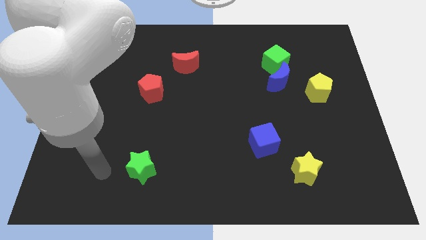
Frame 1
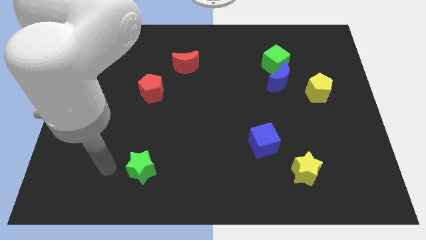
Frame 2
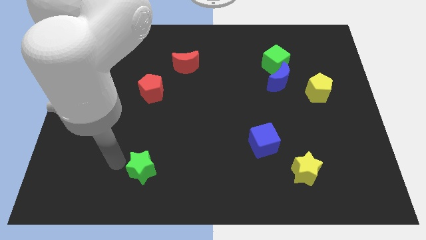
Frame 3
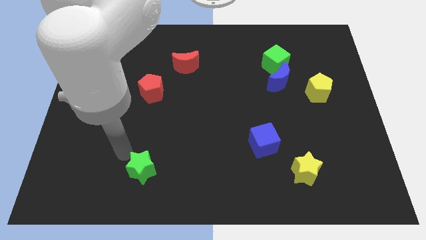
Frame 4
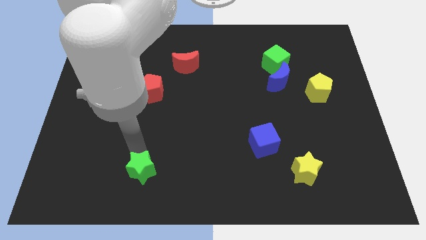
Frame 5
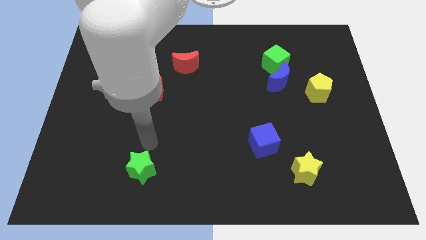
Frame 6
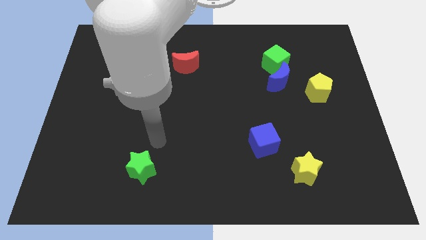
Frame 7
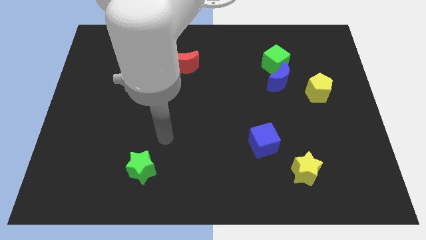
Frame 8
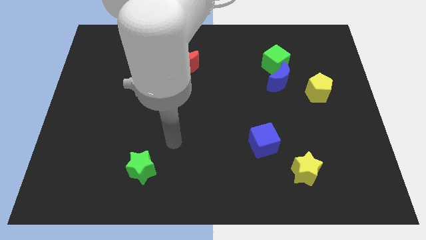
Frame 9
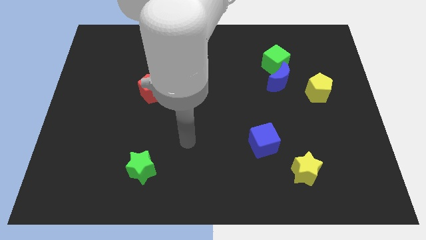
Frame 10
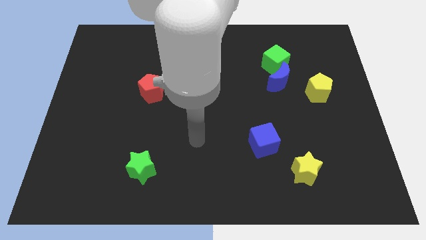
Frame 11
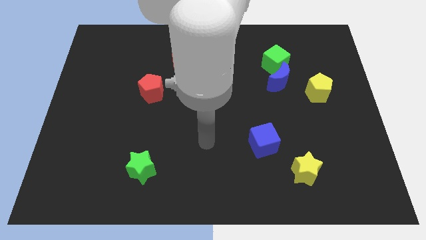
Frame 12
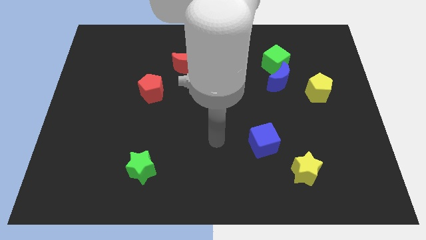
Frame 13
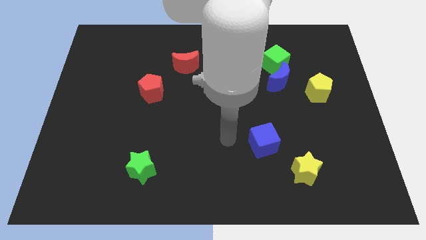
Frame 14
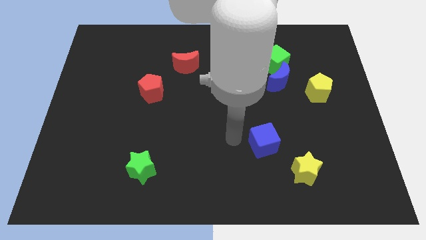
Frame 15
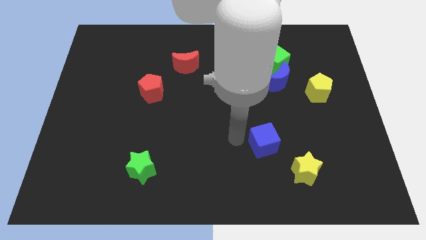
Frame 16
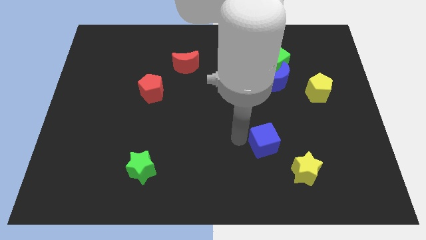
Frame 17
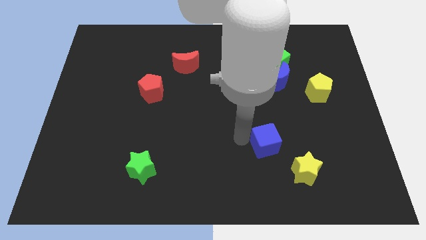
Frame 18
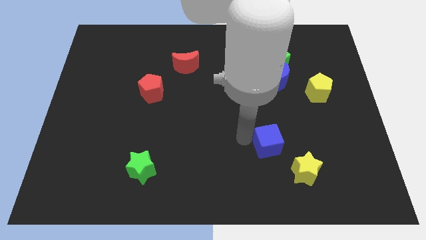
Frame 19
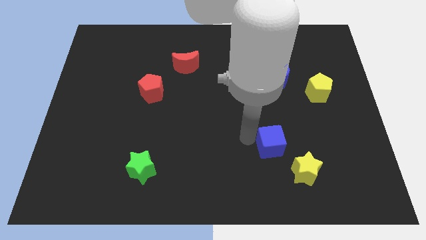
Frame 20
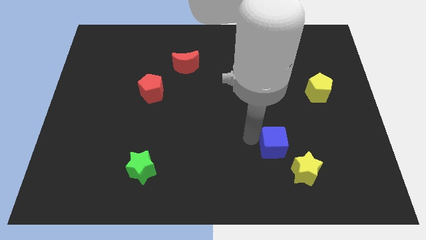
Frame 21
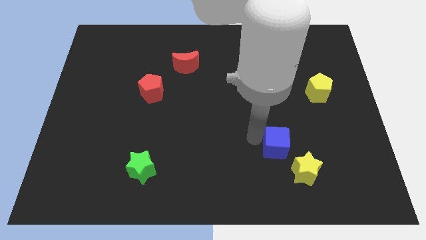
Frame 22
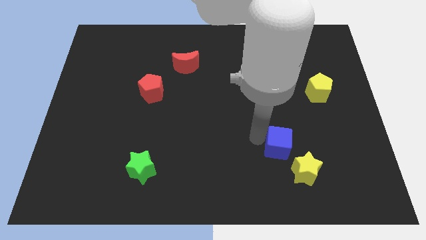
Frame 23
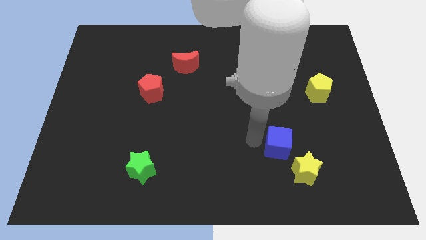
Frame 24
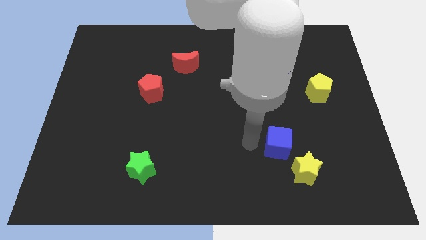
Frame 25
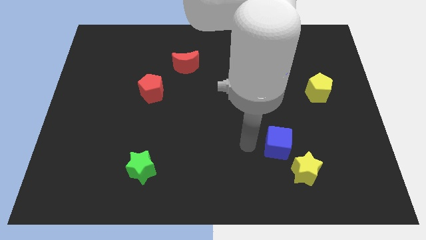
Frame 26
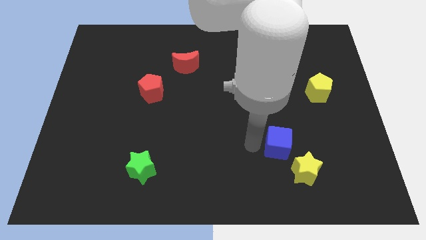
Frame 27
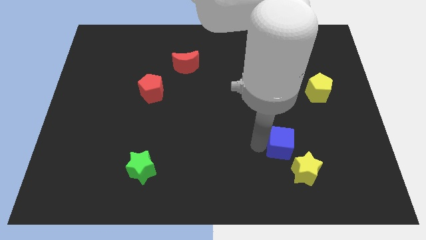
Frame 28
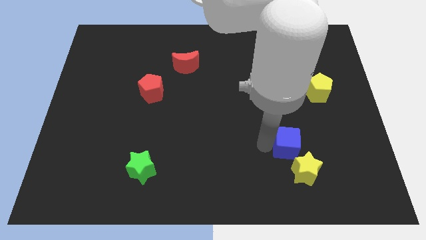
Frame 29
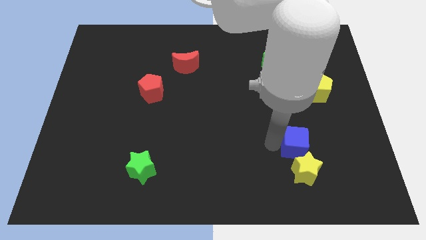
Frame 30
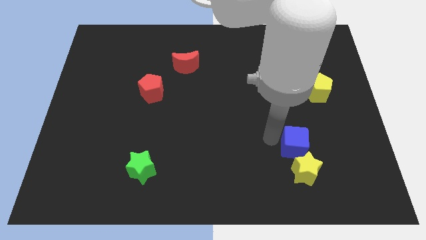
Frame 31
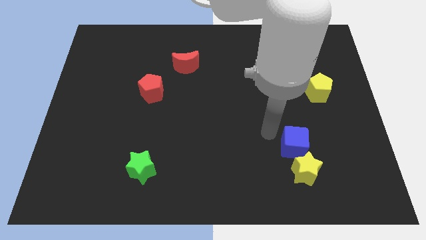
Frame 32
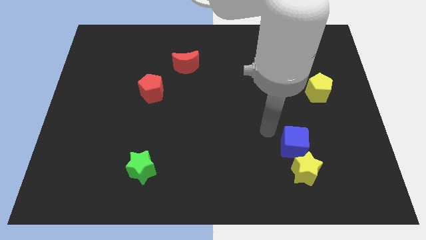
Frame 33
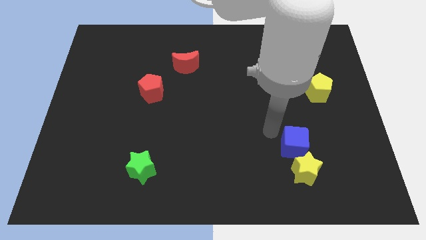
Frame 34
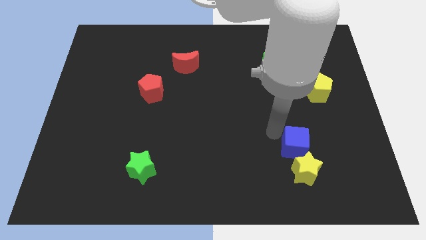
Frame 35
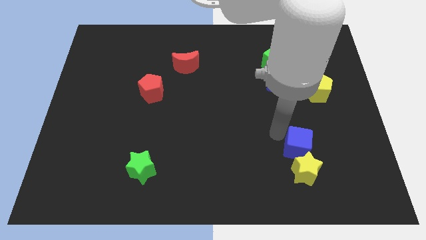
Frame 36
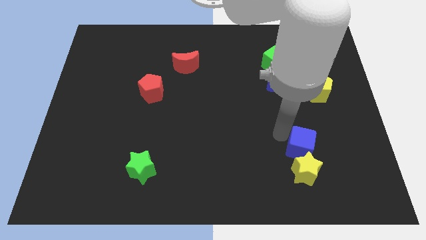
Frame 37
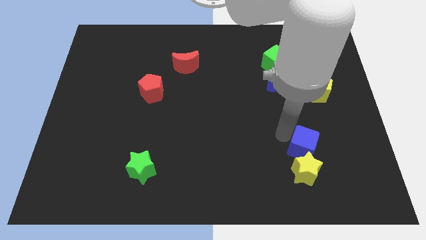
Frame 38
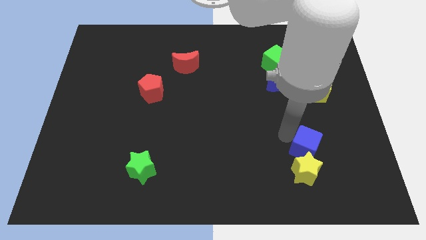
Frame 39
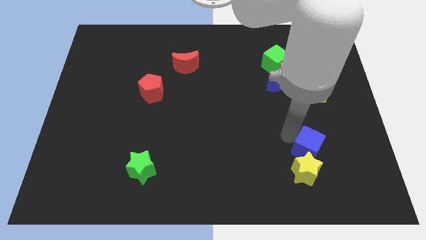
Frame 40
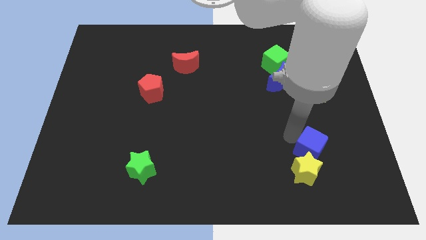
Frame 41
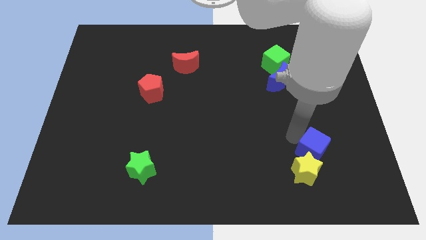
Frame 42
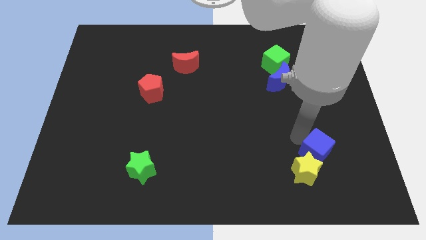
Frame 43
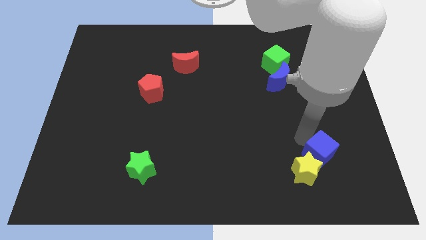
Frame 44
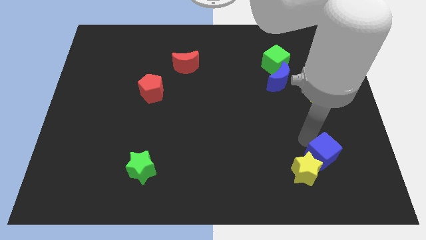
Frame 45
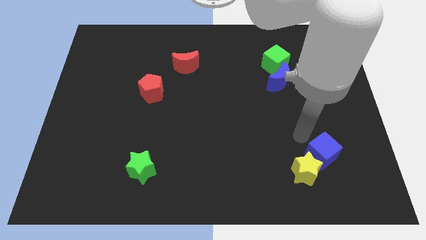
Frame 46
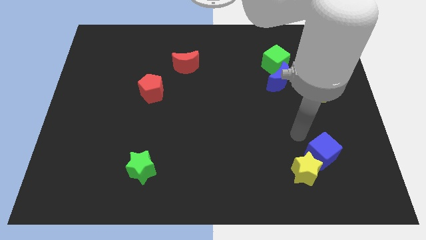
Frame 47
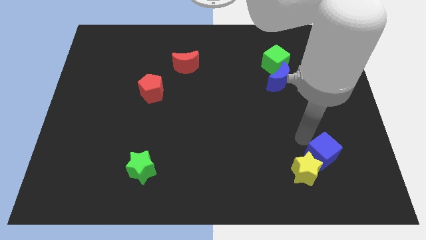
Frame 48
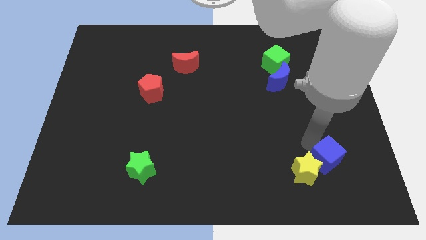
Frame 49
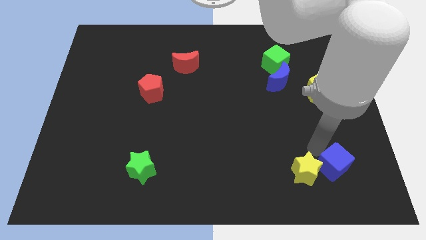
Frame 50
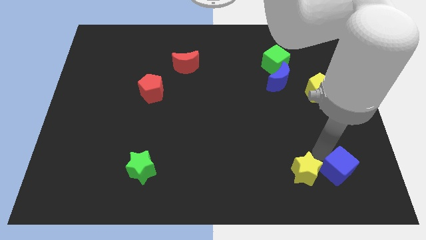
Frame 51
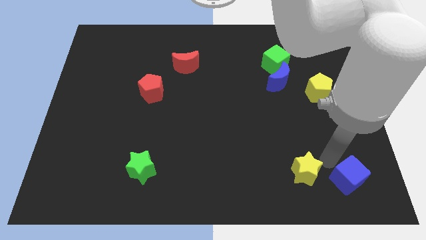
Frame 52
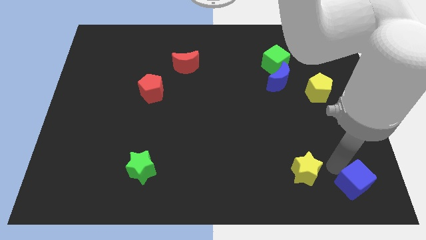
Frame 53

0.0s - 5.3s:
slide the blue cube to the bottom right

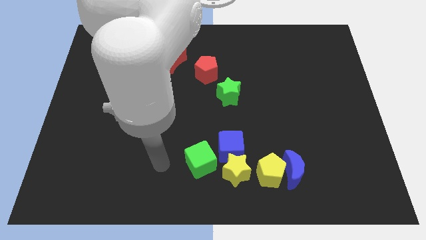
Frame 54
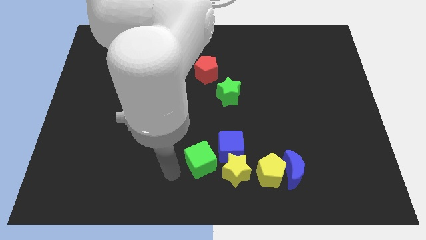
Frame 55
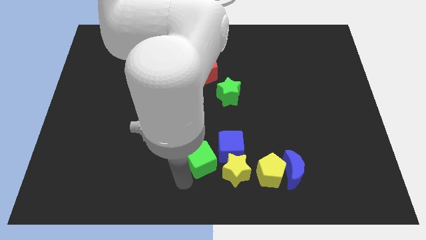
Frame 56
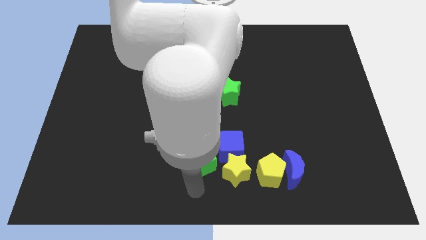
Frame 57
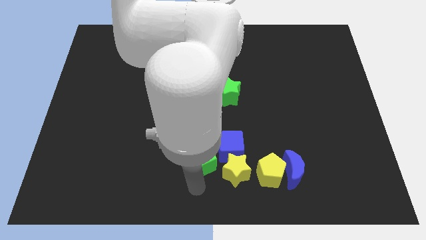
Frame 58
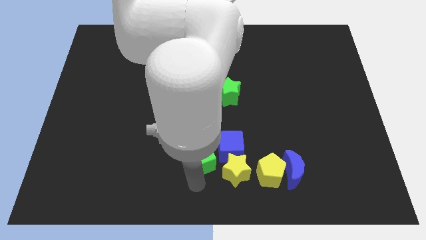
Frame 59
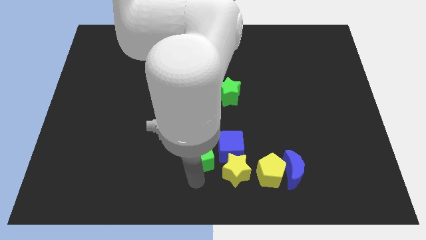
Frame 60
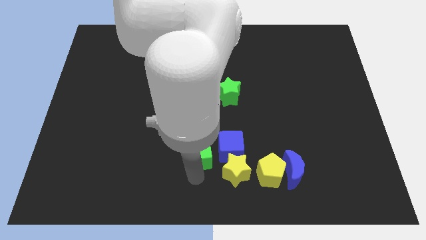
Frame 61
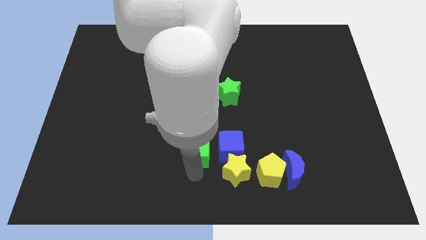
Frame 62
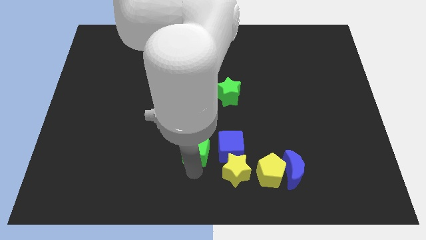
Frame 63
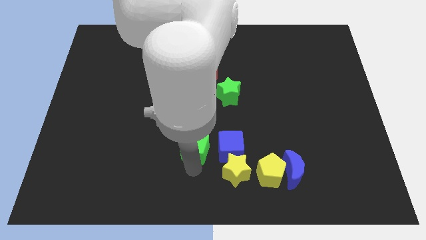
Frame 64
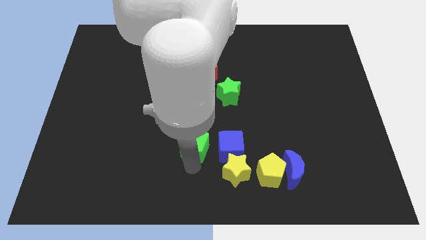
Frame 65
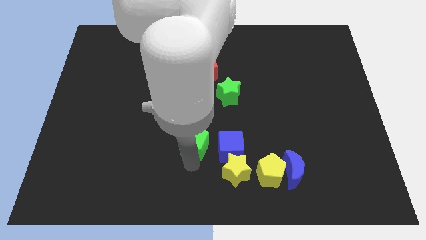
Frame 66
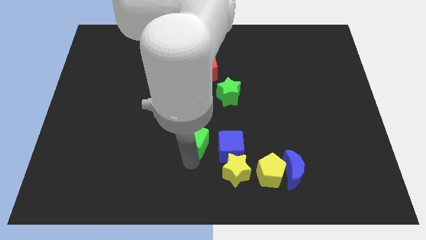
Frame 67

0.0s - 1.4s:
put the green cube to the center of the board
